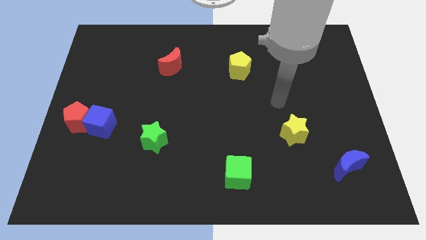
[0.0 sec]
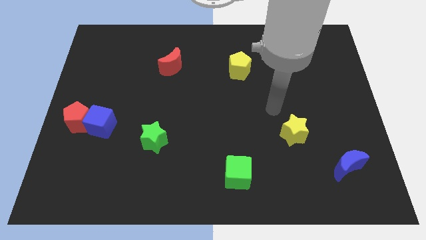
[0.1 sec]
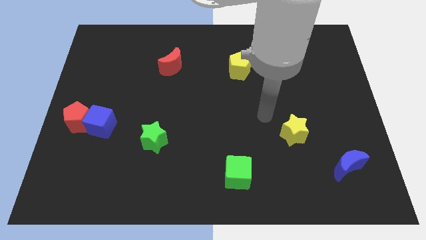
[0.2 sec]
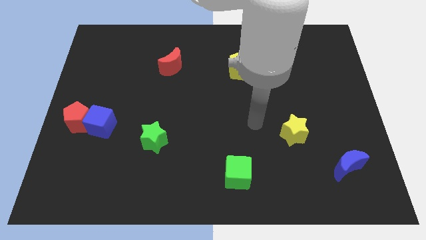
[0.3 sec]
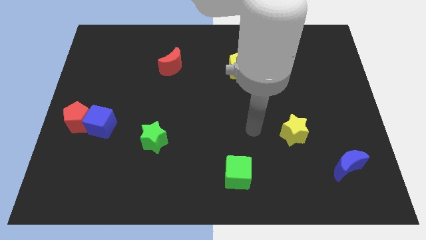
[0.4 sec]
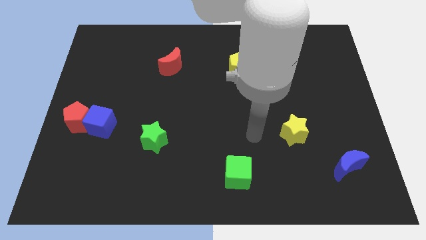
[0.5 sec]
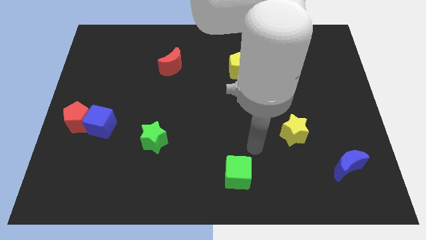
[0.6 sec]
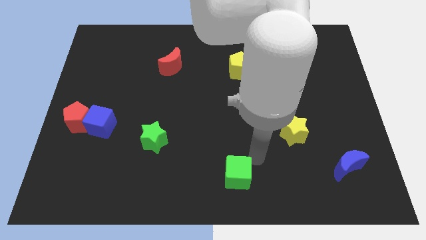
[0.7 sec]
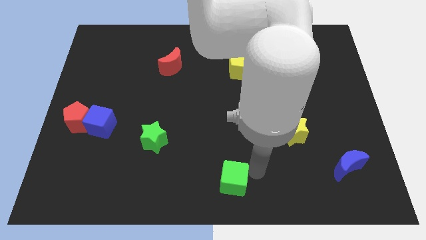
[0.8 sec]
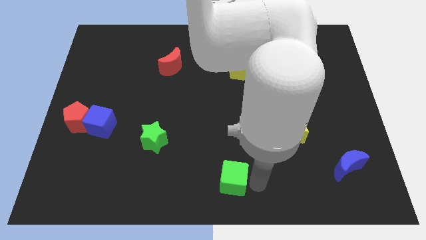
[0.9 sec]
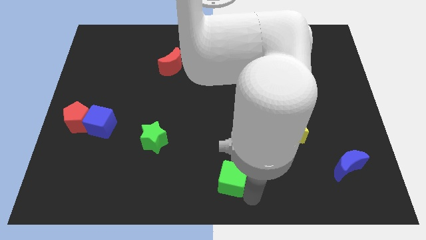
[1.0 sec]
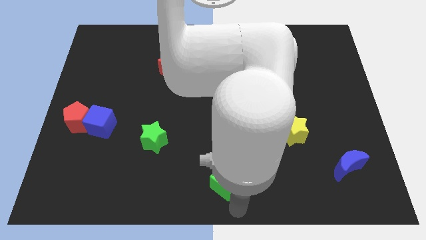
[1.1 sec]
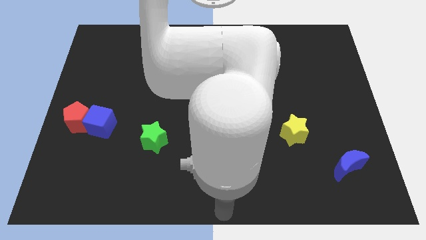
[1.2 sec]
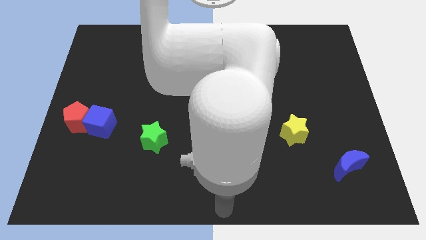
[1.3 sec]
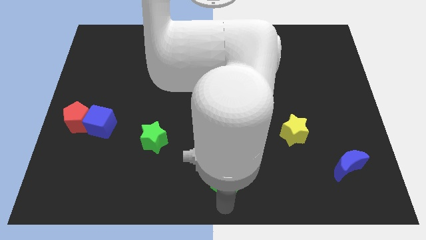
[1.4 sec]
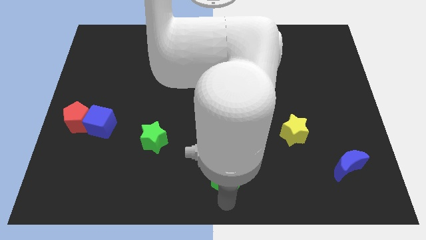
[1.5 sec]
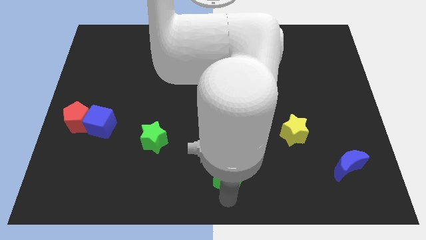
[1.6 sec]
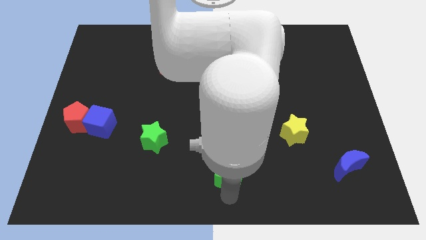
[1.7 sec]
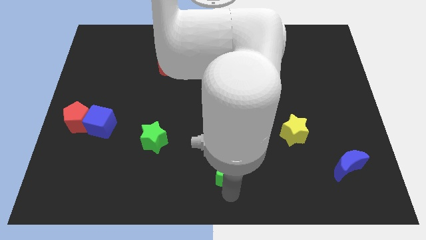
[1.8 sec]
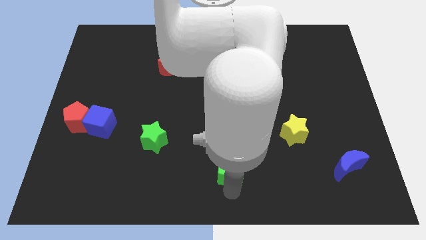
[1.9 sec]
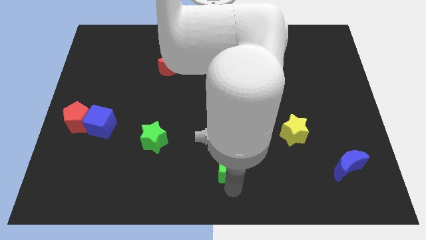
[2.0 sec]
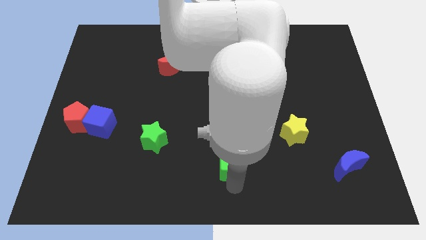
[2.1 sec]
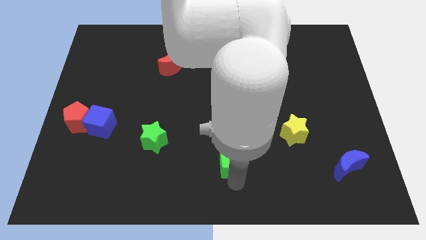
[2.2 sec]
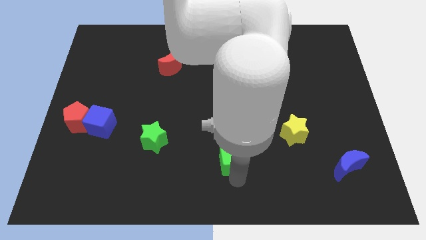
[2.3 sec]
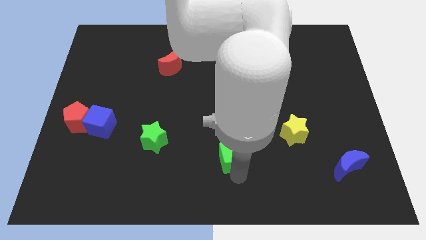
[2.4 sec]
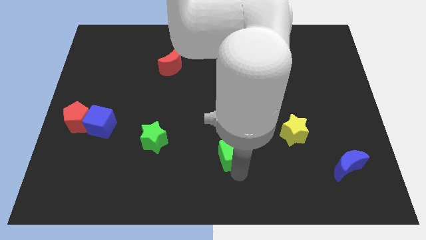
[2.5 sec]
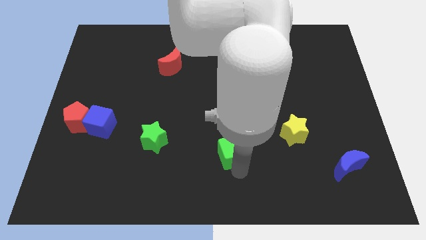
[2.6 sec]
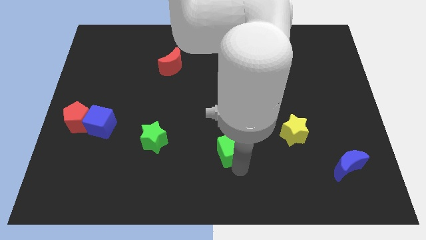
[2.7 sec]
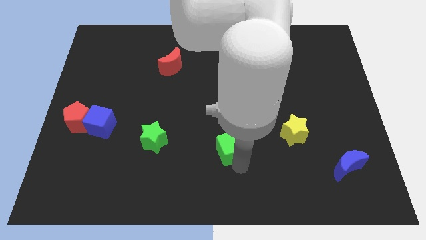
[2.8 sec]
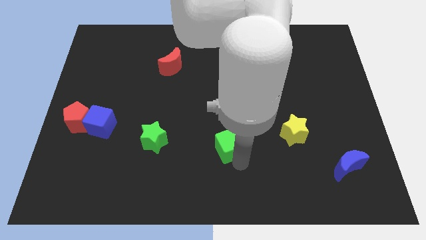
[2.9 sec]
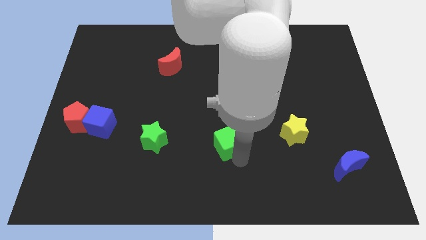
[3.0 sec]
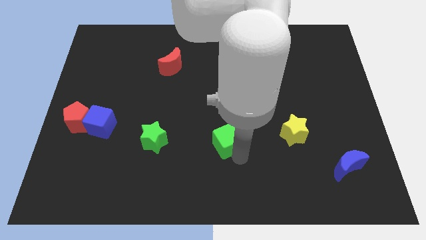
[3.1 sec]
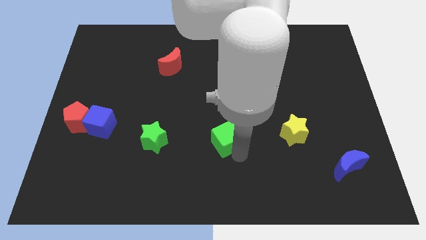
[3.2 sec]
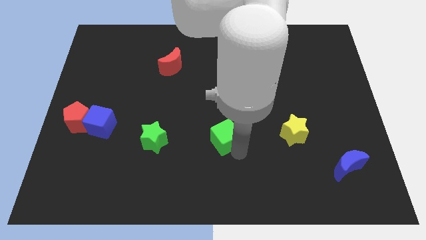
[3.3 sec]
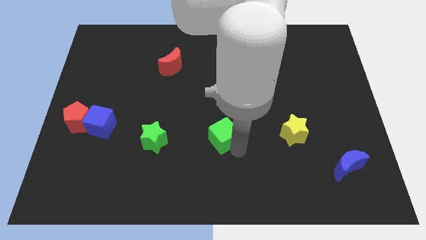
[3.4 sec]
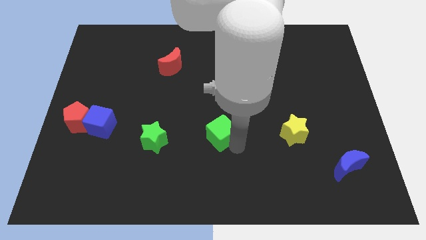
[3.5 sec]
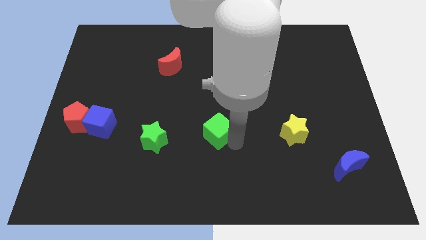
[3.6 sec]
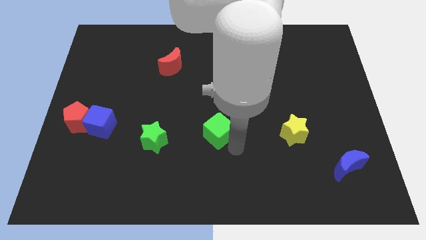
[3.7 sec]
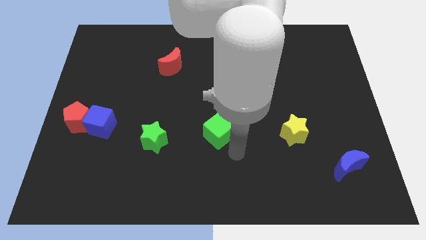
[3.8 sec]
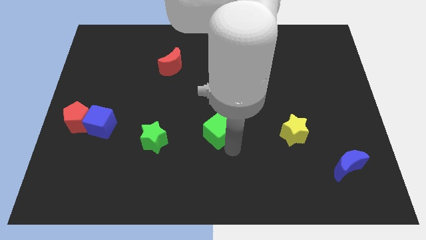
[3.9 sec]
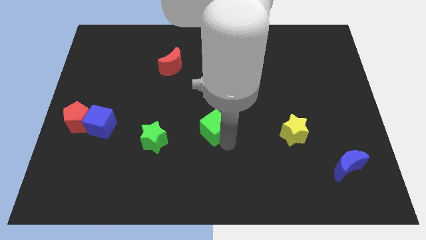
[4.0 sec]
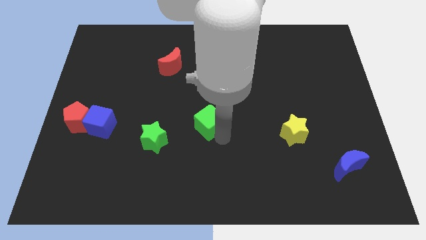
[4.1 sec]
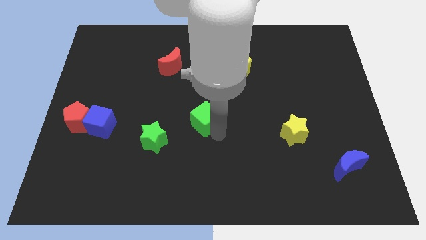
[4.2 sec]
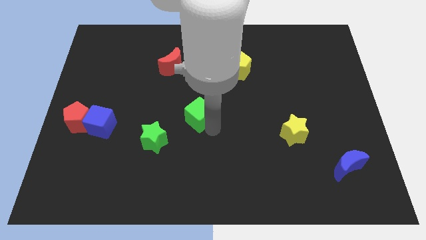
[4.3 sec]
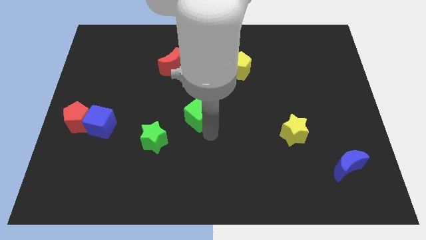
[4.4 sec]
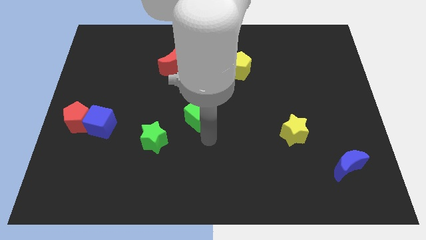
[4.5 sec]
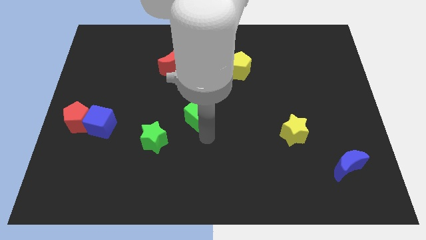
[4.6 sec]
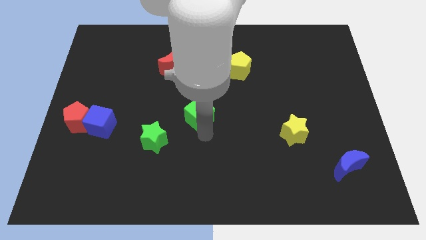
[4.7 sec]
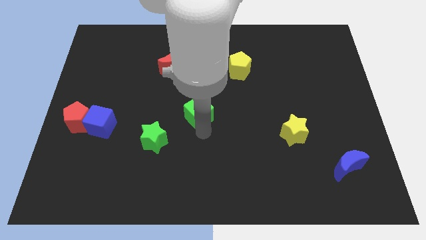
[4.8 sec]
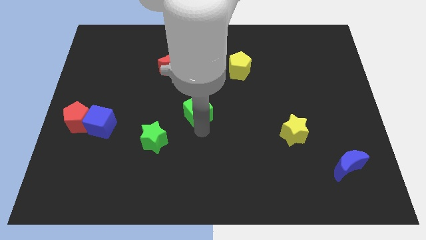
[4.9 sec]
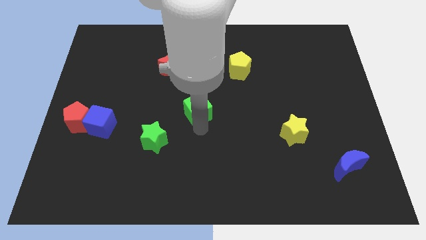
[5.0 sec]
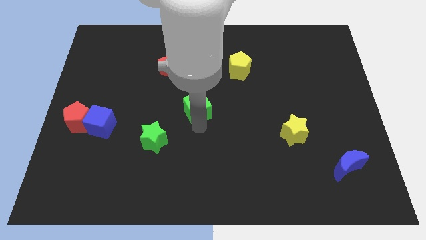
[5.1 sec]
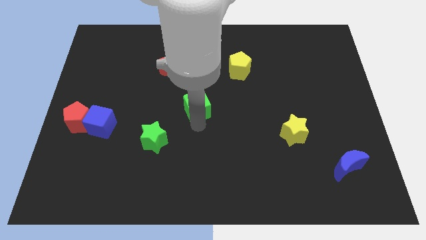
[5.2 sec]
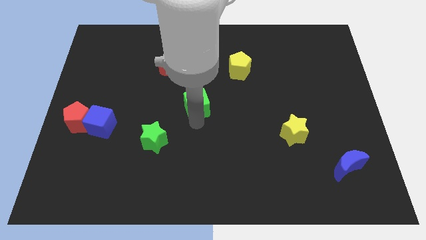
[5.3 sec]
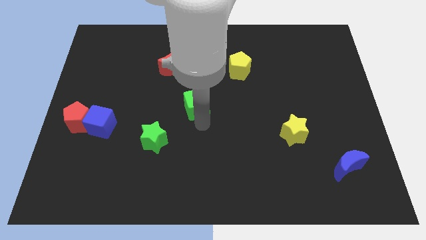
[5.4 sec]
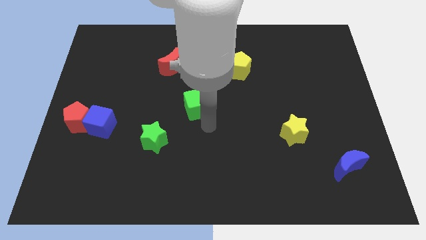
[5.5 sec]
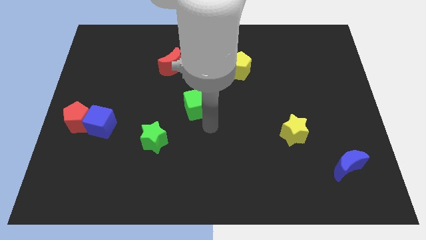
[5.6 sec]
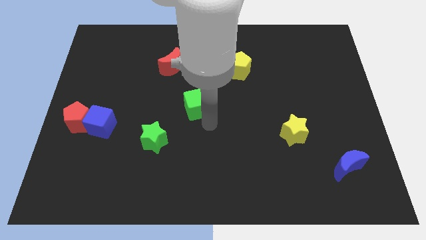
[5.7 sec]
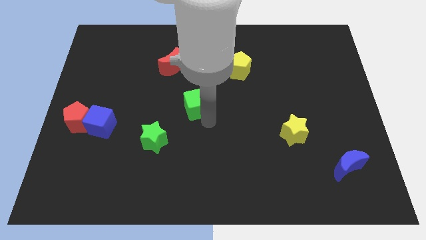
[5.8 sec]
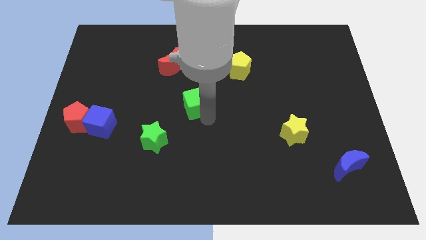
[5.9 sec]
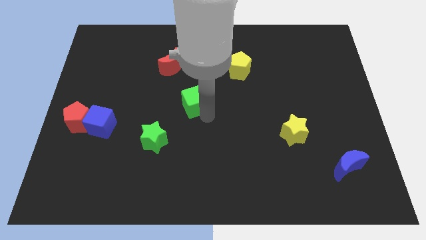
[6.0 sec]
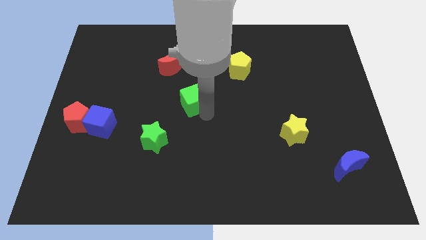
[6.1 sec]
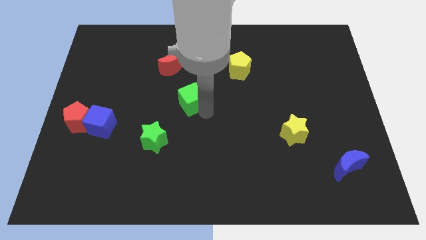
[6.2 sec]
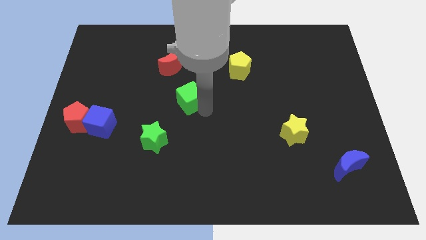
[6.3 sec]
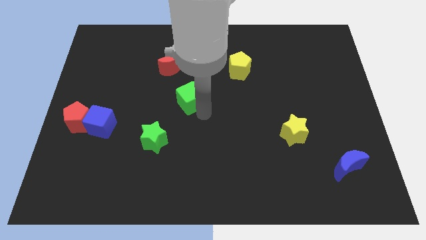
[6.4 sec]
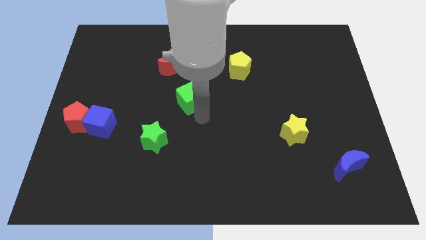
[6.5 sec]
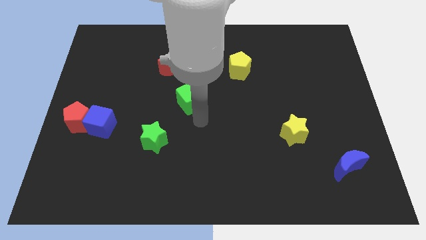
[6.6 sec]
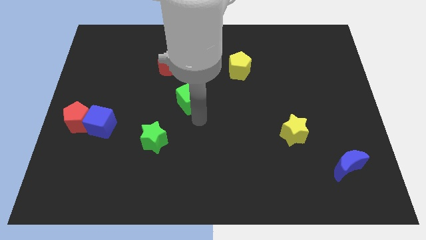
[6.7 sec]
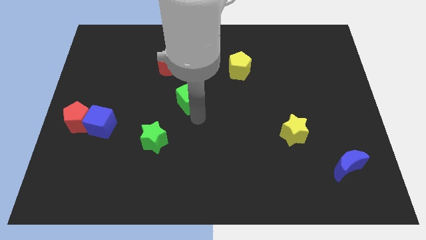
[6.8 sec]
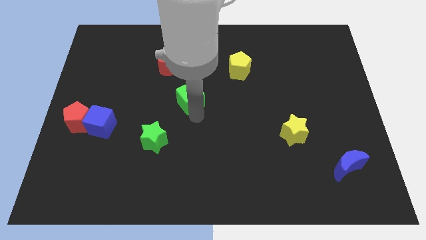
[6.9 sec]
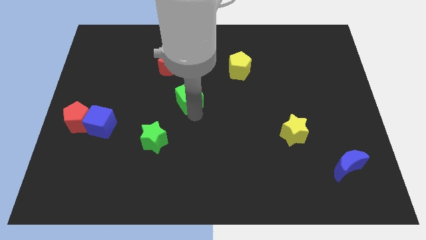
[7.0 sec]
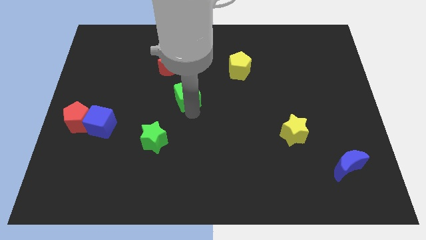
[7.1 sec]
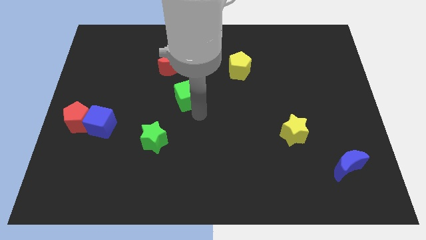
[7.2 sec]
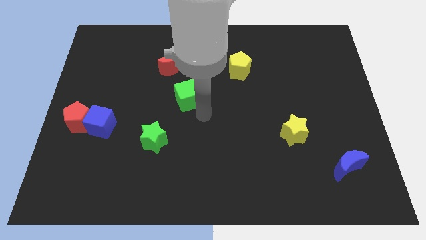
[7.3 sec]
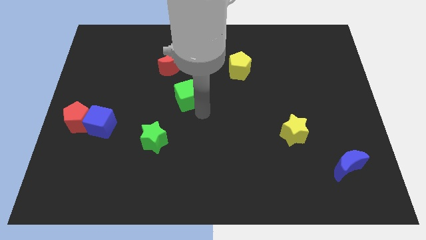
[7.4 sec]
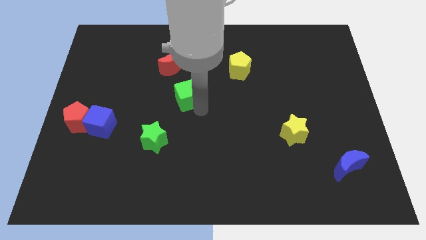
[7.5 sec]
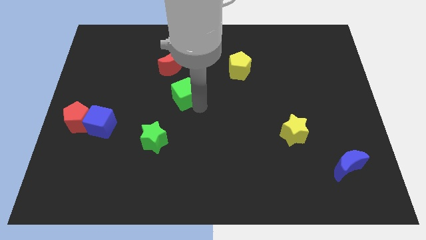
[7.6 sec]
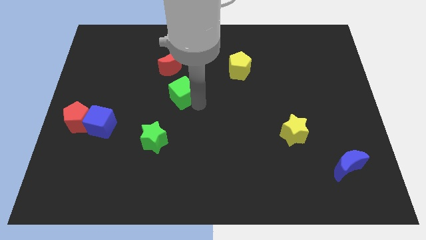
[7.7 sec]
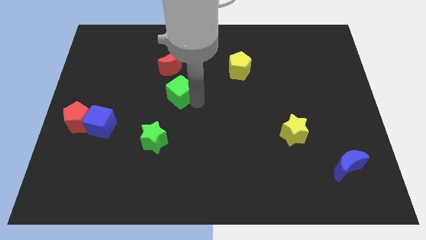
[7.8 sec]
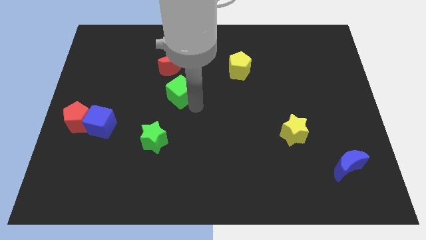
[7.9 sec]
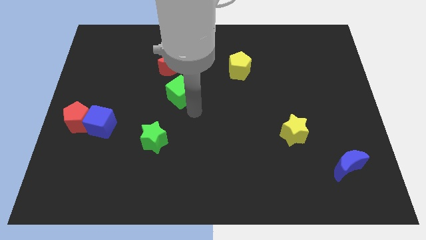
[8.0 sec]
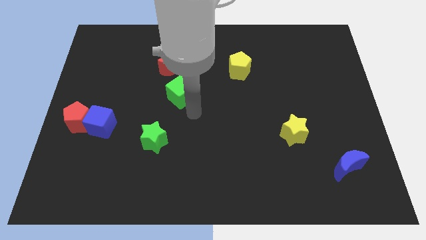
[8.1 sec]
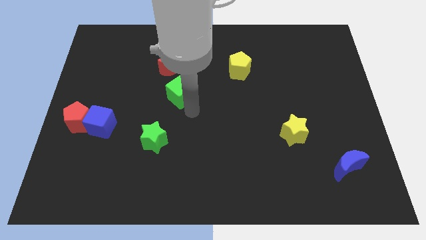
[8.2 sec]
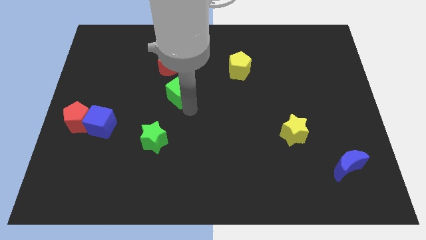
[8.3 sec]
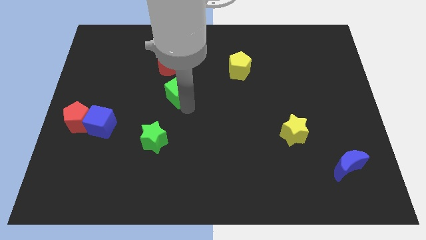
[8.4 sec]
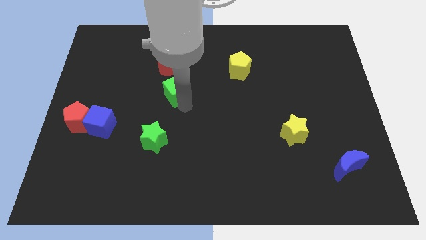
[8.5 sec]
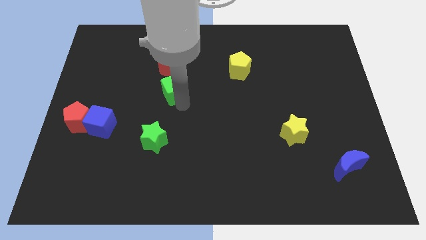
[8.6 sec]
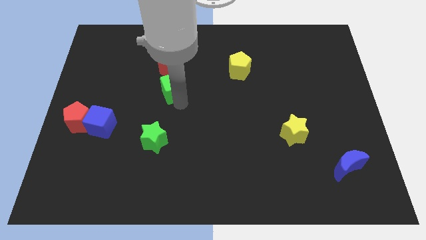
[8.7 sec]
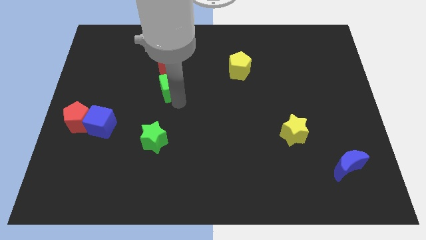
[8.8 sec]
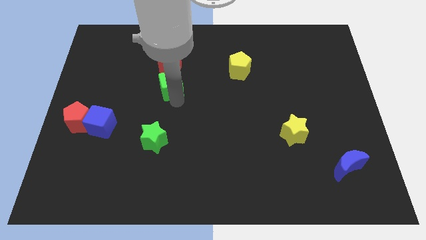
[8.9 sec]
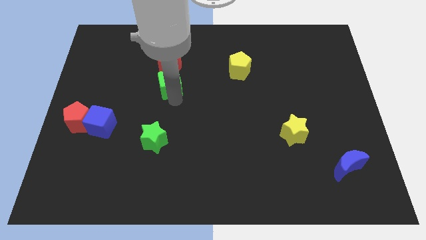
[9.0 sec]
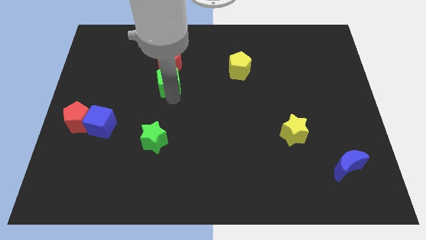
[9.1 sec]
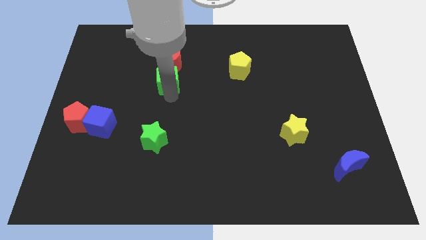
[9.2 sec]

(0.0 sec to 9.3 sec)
put the green cube towards the red moon
